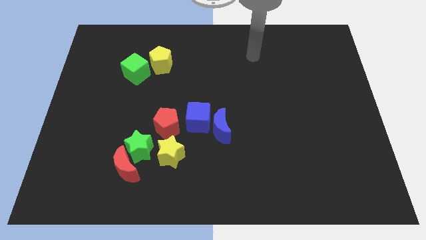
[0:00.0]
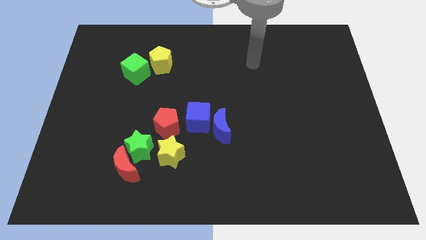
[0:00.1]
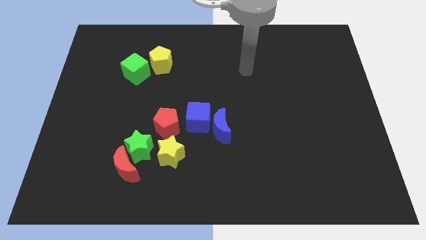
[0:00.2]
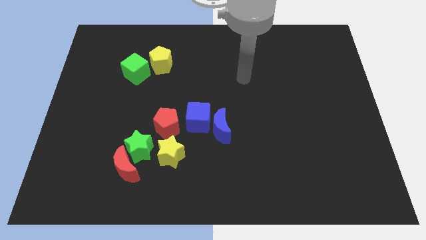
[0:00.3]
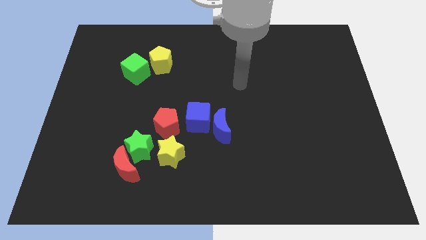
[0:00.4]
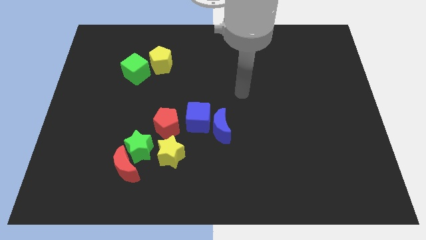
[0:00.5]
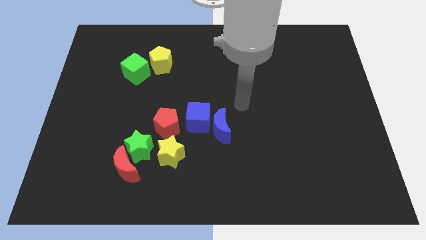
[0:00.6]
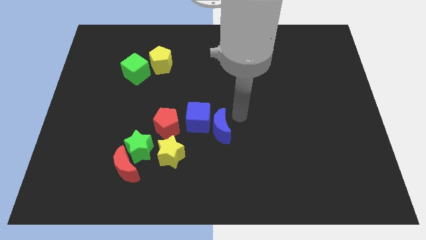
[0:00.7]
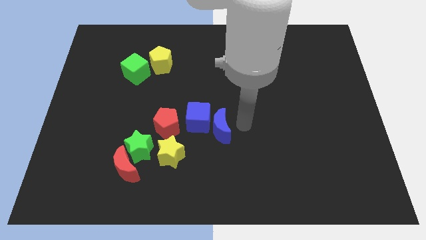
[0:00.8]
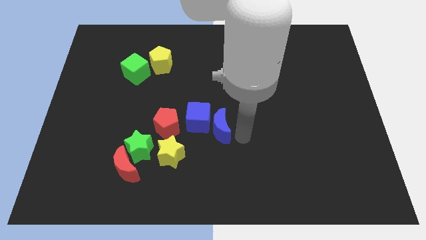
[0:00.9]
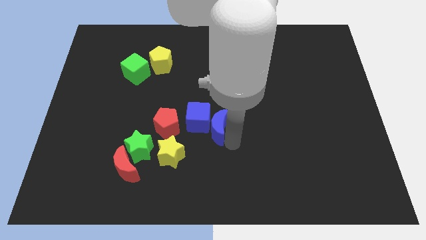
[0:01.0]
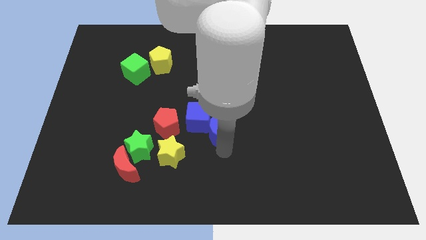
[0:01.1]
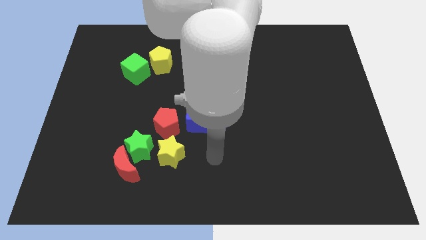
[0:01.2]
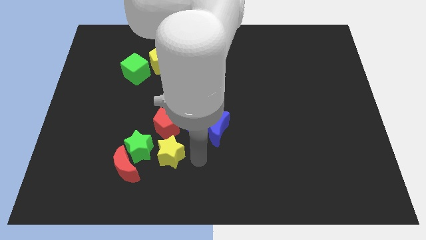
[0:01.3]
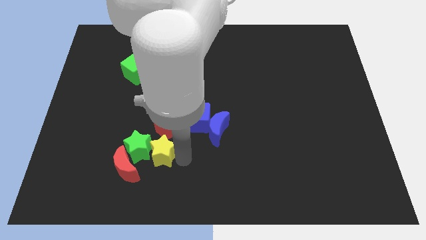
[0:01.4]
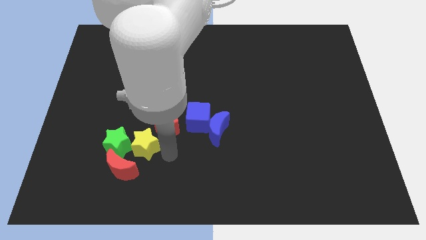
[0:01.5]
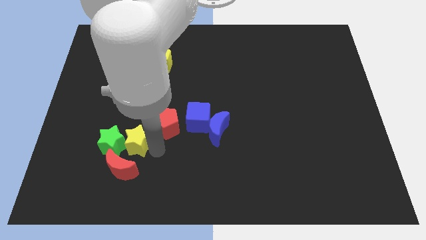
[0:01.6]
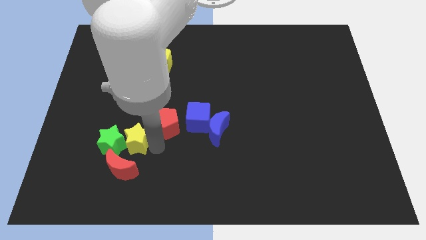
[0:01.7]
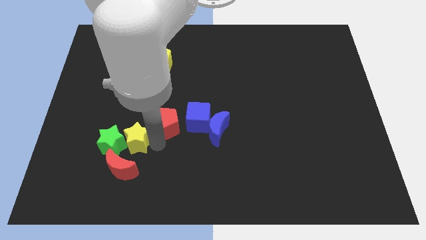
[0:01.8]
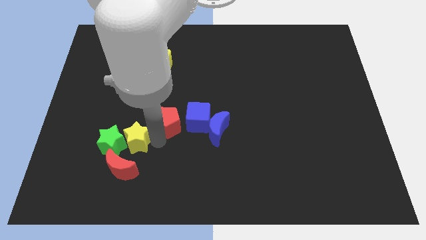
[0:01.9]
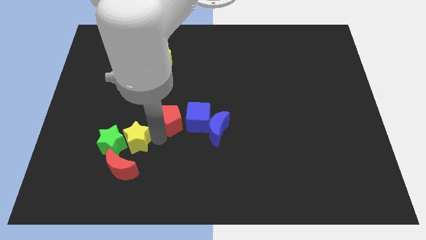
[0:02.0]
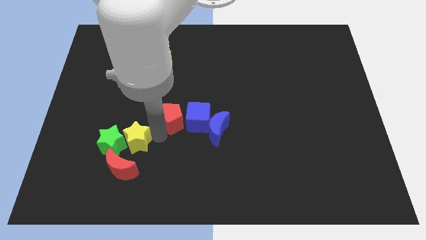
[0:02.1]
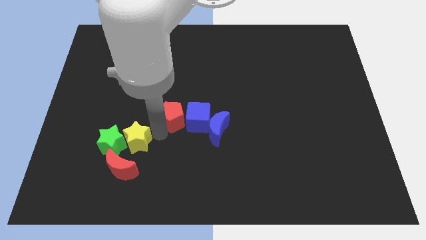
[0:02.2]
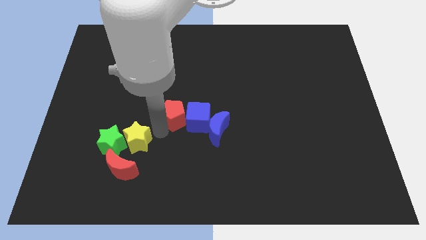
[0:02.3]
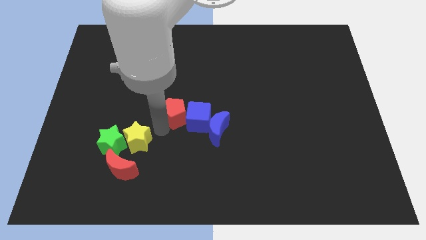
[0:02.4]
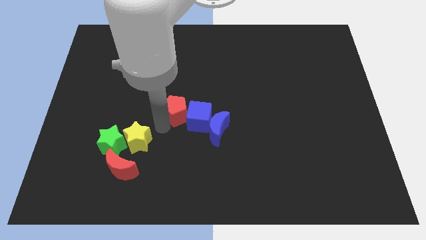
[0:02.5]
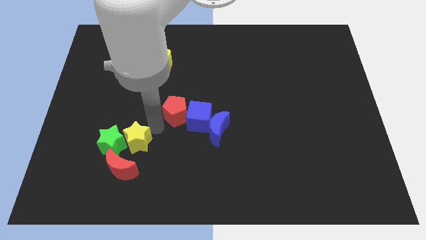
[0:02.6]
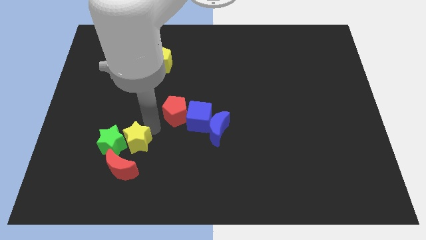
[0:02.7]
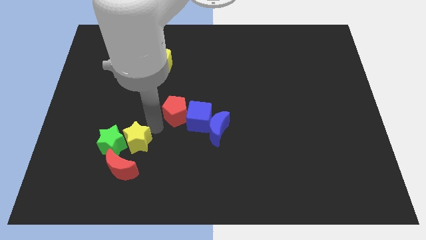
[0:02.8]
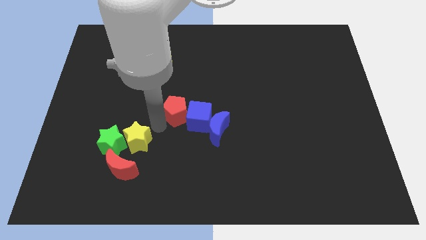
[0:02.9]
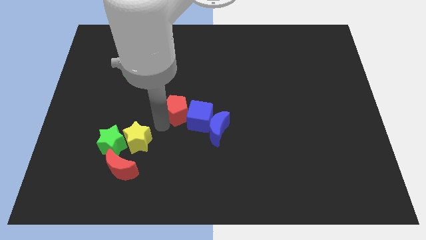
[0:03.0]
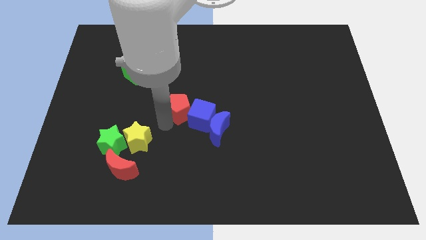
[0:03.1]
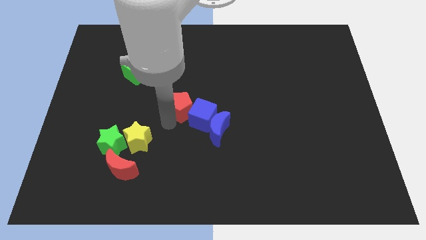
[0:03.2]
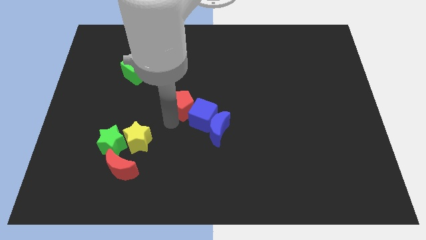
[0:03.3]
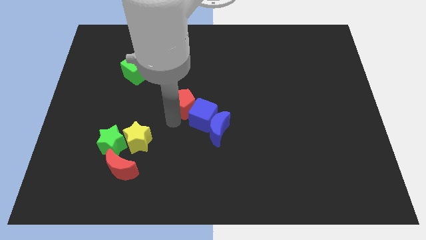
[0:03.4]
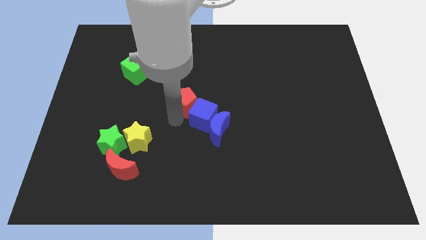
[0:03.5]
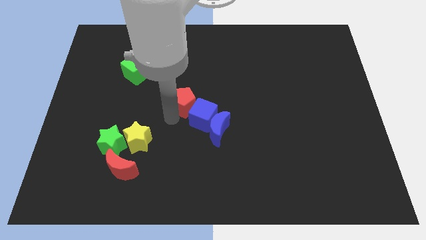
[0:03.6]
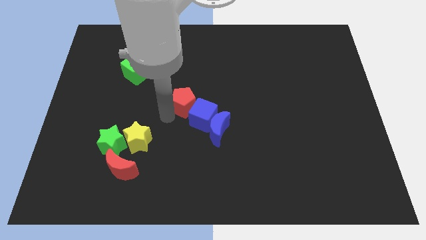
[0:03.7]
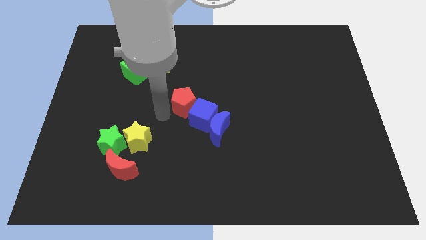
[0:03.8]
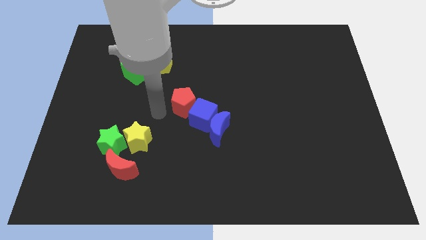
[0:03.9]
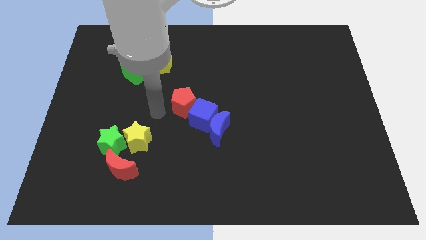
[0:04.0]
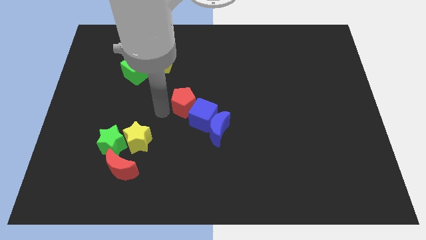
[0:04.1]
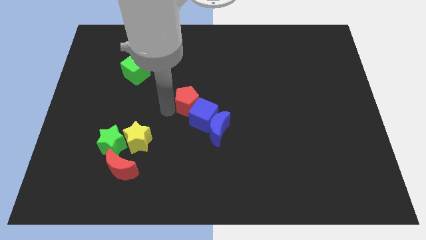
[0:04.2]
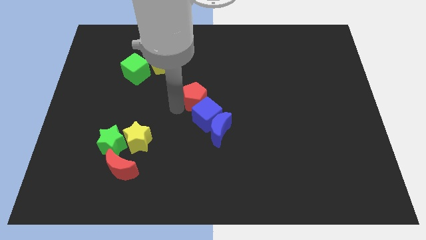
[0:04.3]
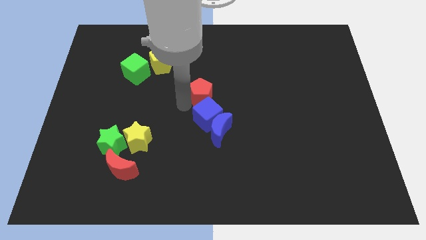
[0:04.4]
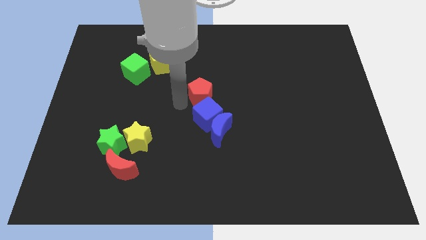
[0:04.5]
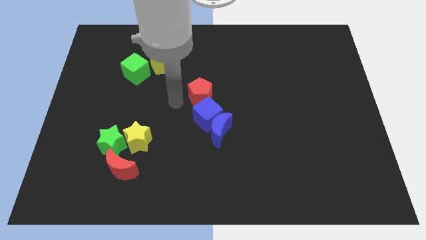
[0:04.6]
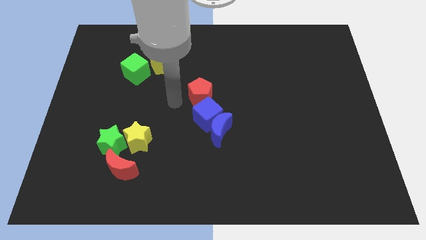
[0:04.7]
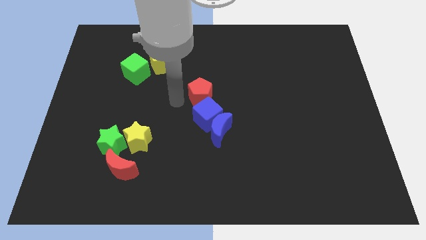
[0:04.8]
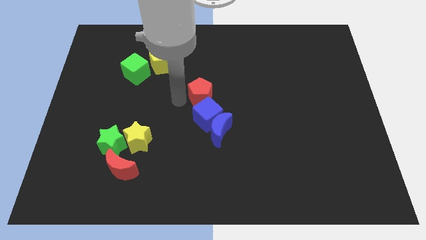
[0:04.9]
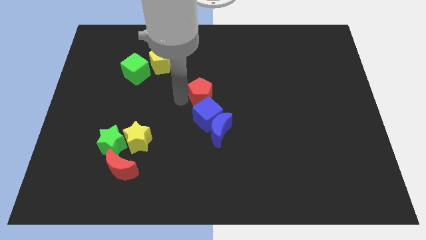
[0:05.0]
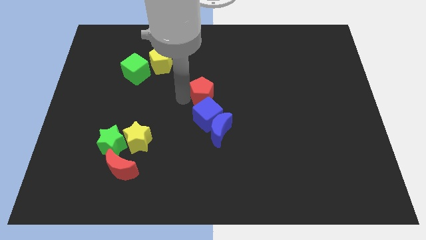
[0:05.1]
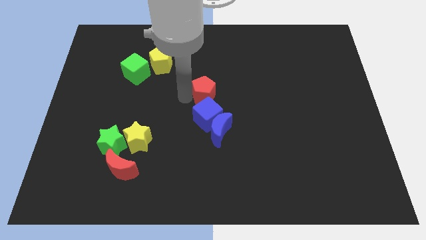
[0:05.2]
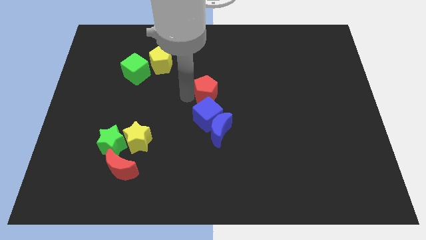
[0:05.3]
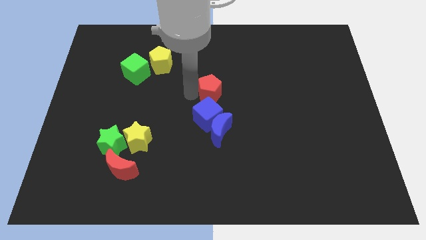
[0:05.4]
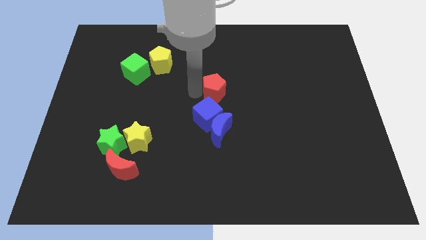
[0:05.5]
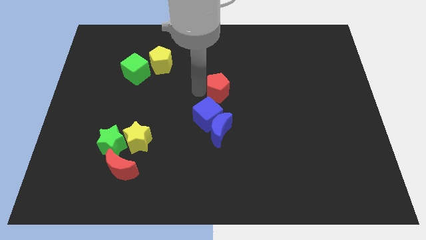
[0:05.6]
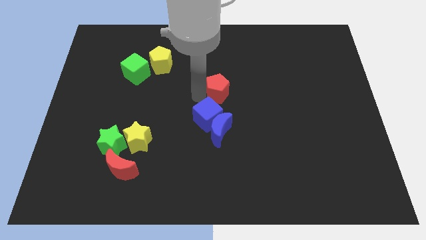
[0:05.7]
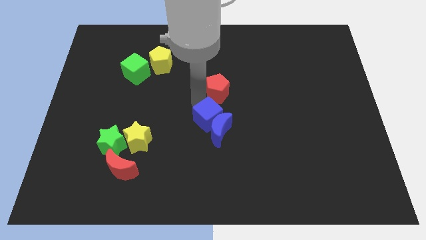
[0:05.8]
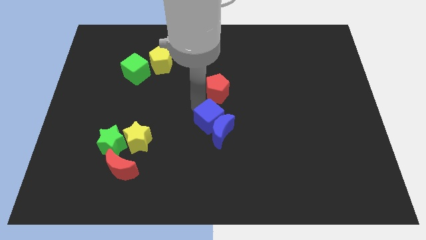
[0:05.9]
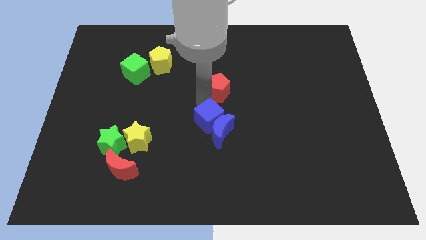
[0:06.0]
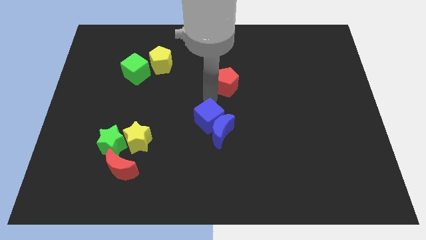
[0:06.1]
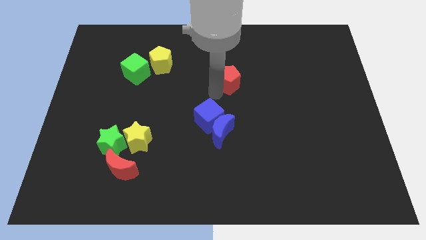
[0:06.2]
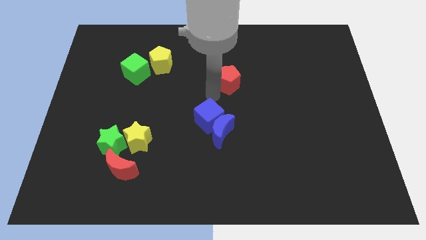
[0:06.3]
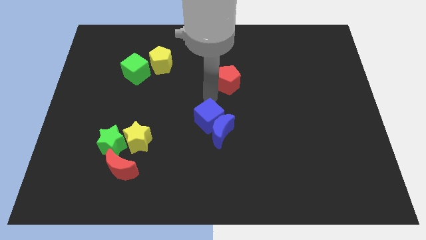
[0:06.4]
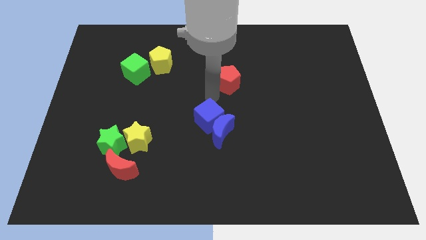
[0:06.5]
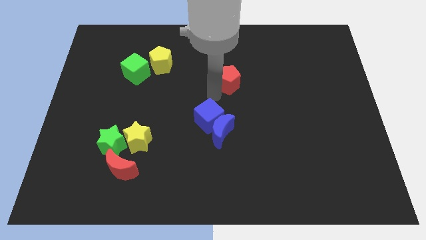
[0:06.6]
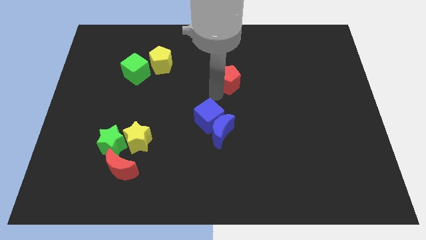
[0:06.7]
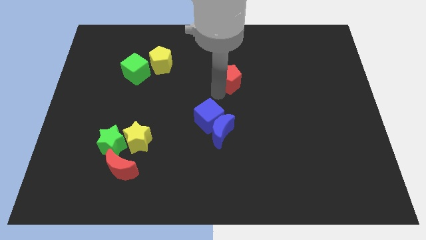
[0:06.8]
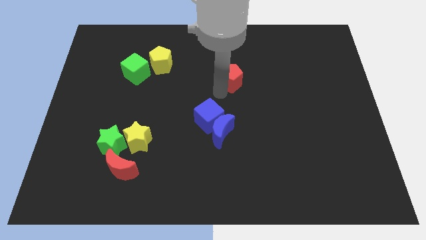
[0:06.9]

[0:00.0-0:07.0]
slide the red pentagon up and to the right

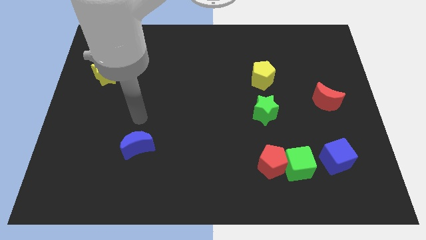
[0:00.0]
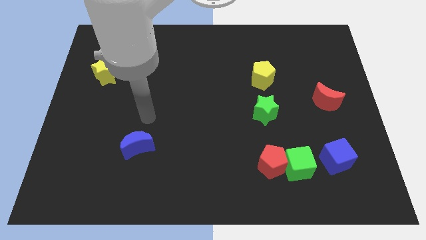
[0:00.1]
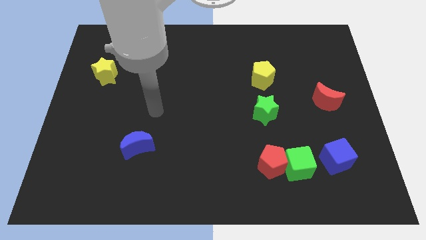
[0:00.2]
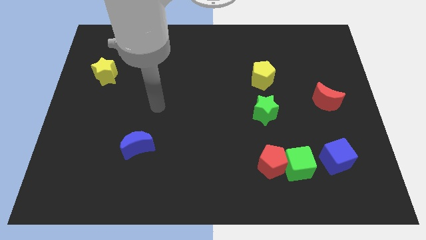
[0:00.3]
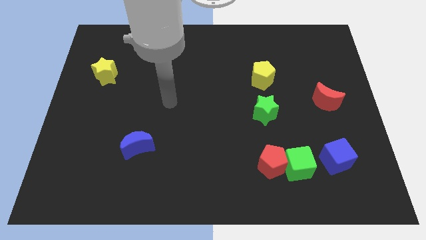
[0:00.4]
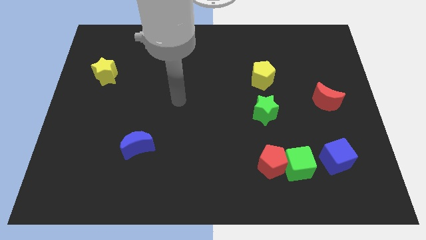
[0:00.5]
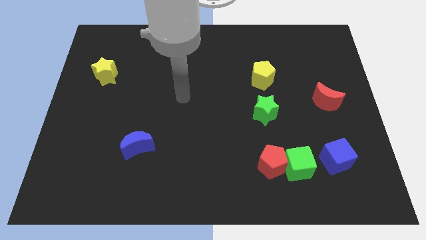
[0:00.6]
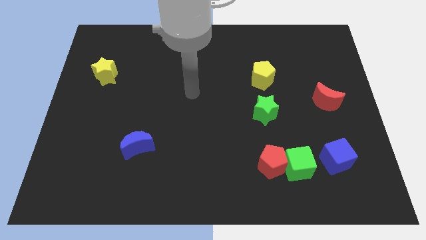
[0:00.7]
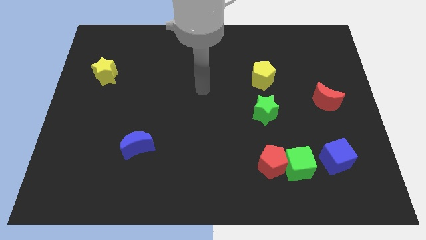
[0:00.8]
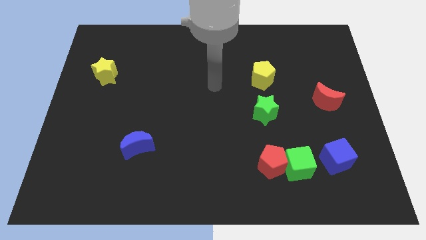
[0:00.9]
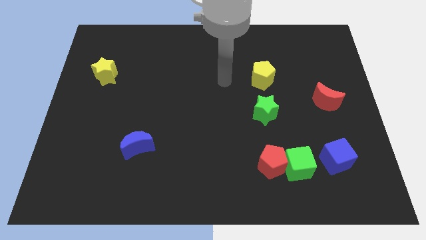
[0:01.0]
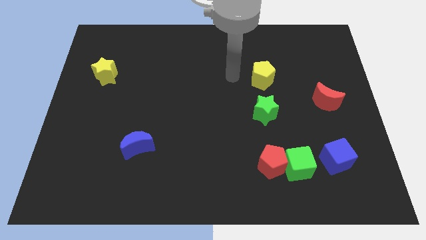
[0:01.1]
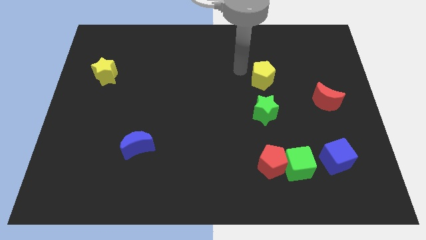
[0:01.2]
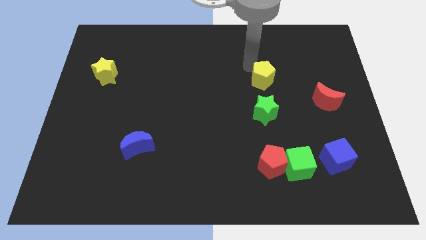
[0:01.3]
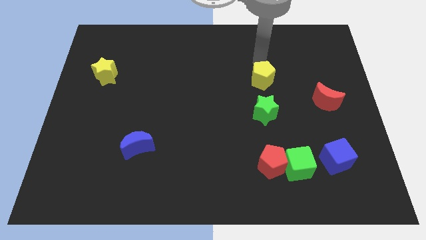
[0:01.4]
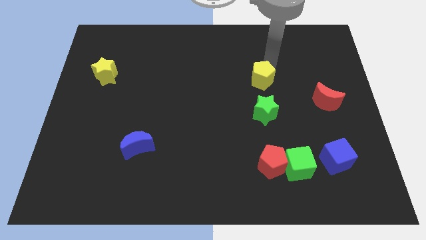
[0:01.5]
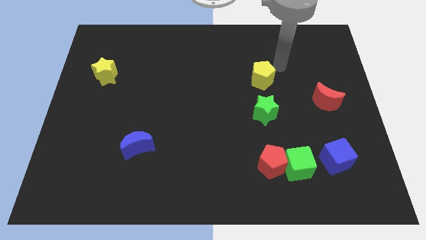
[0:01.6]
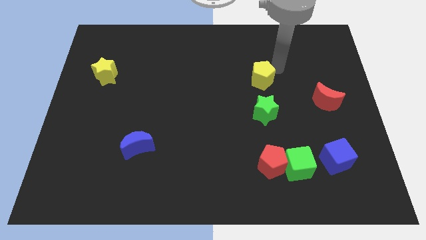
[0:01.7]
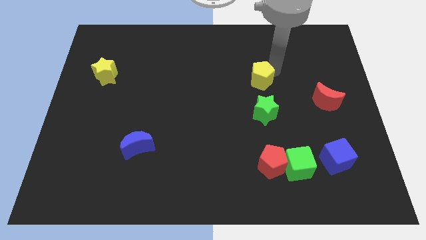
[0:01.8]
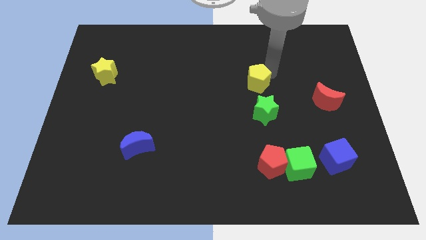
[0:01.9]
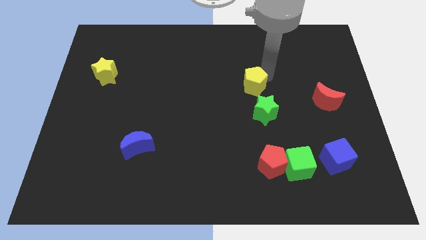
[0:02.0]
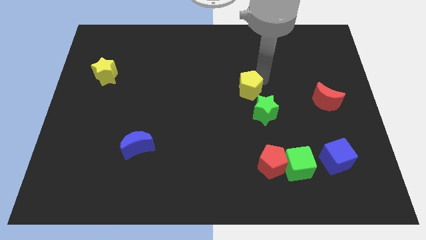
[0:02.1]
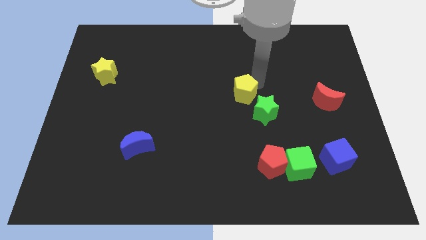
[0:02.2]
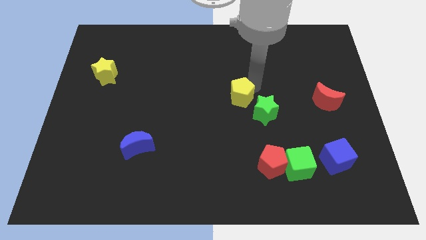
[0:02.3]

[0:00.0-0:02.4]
slide the yellow pentagon diagonally down and left a bit
